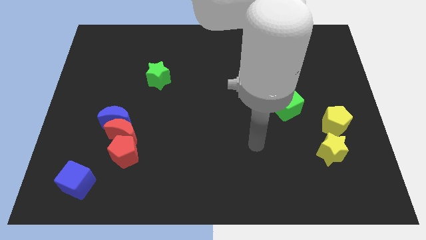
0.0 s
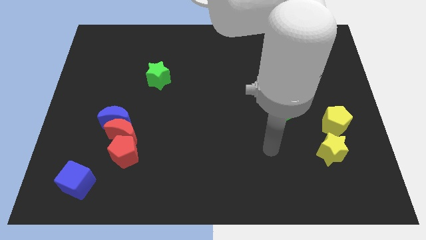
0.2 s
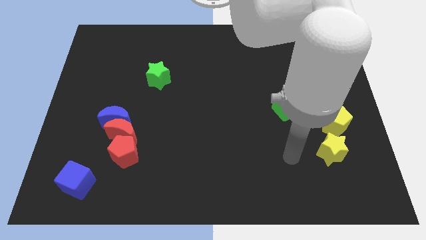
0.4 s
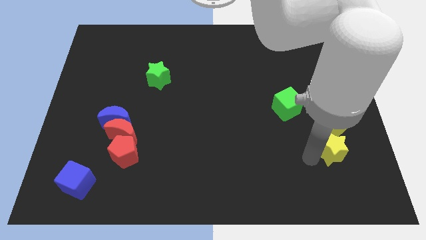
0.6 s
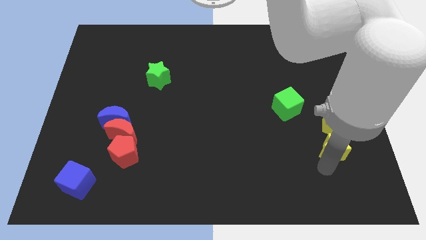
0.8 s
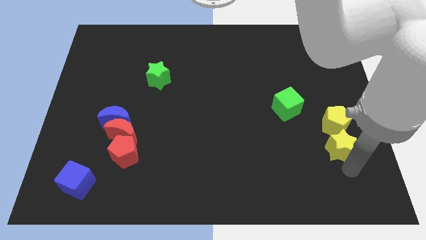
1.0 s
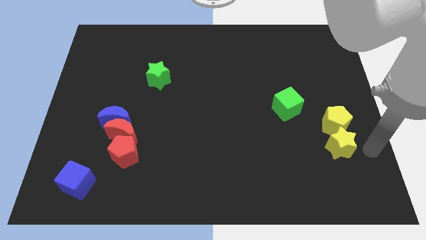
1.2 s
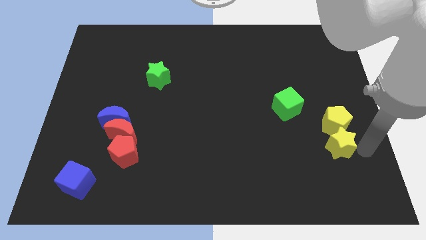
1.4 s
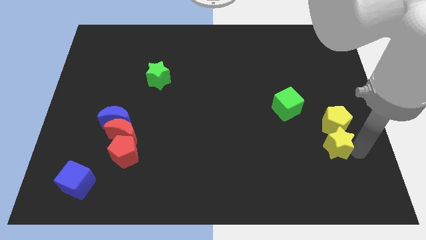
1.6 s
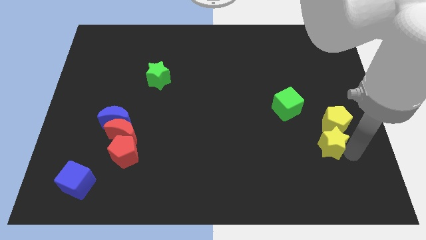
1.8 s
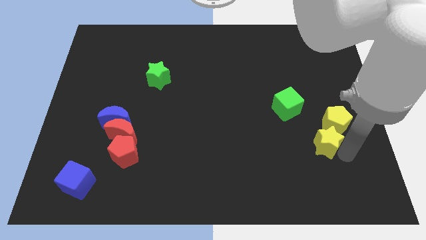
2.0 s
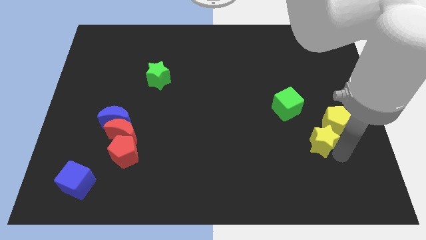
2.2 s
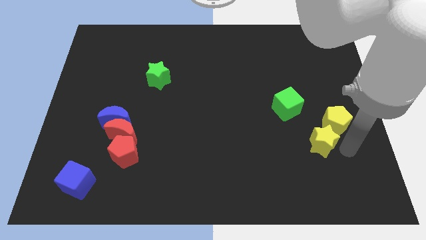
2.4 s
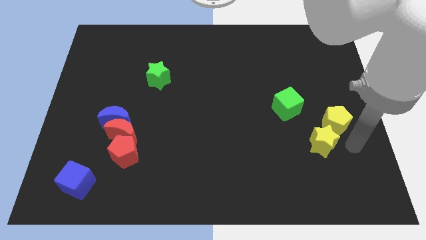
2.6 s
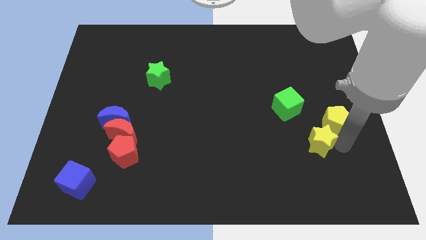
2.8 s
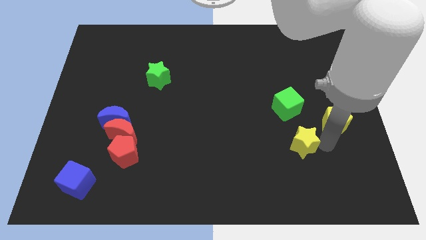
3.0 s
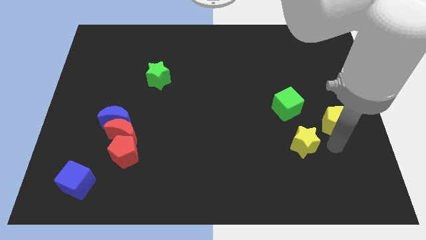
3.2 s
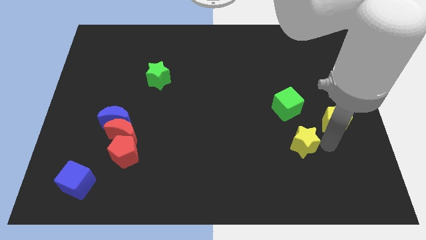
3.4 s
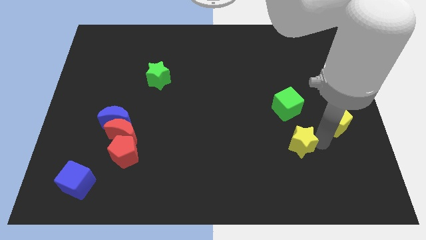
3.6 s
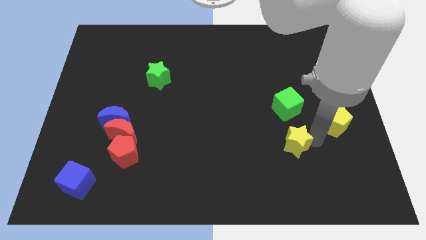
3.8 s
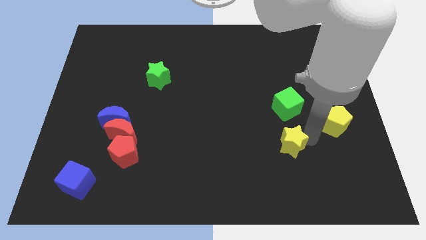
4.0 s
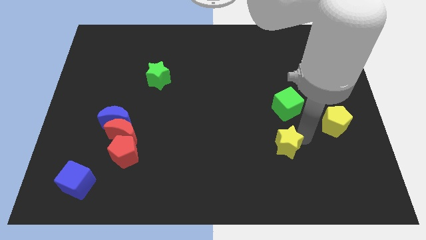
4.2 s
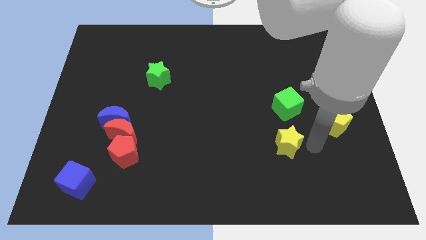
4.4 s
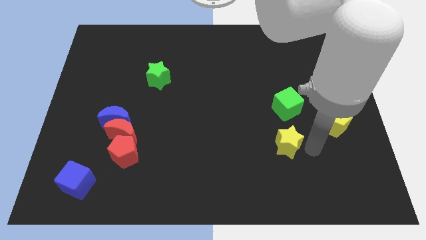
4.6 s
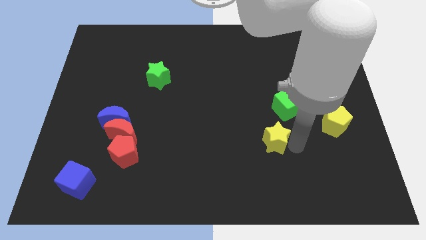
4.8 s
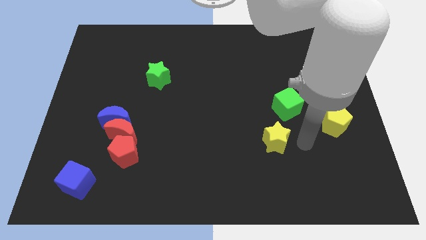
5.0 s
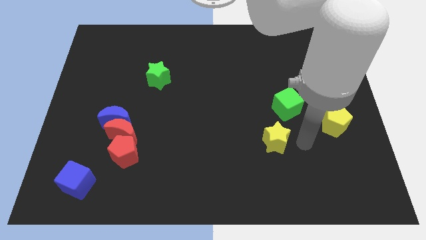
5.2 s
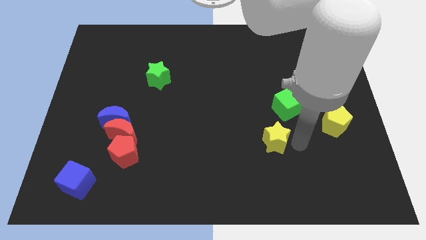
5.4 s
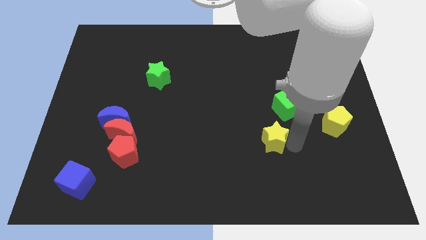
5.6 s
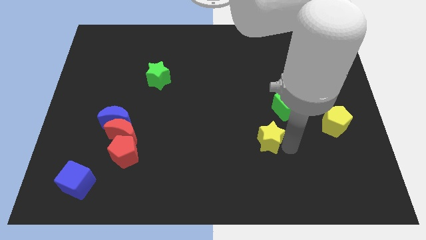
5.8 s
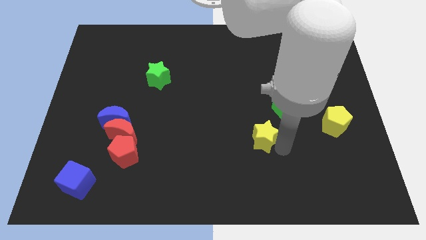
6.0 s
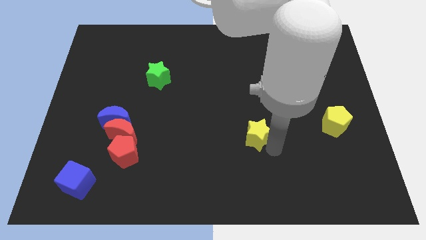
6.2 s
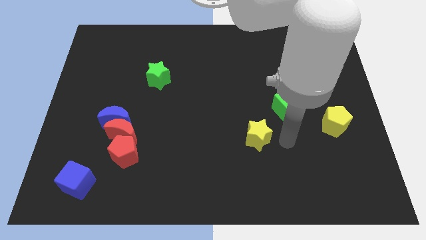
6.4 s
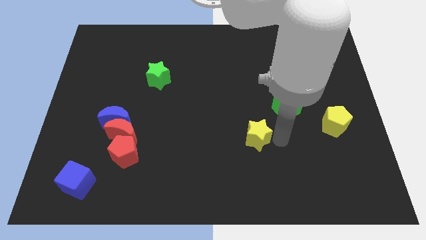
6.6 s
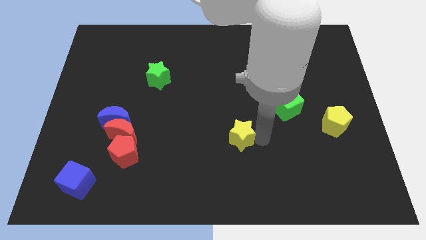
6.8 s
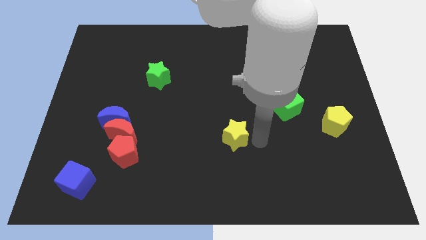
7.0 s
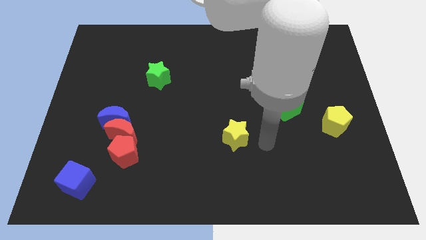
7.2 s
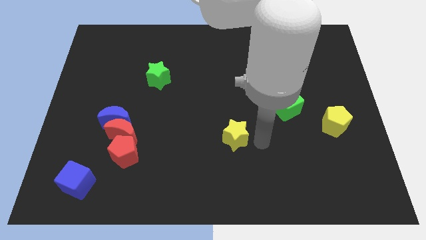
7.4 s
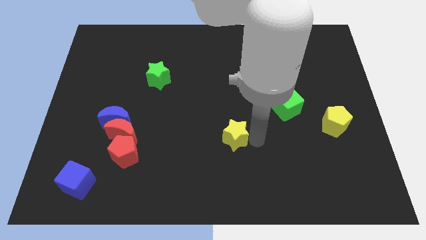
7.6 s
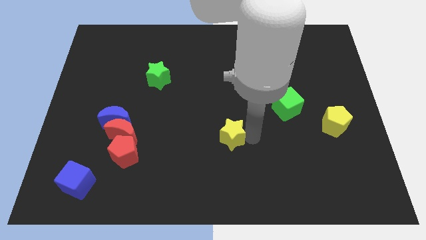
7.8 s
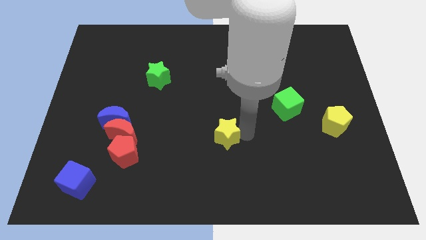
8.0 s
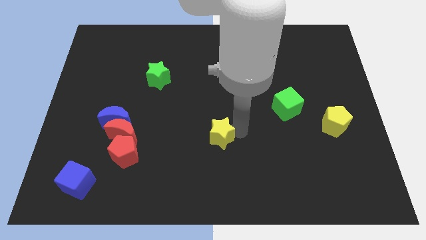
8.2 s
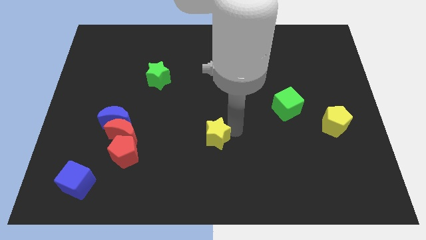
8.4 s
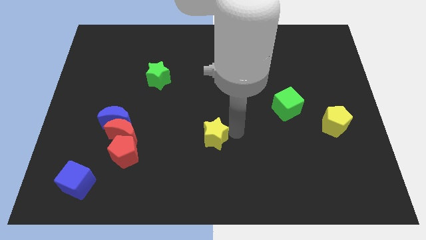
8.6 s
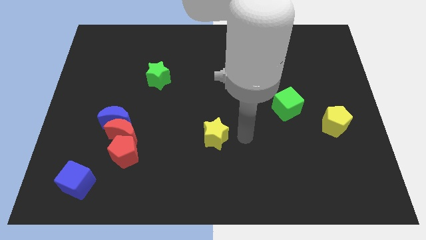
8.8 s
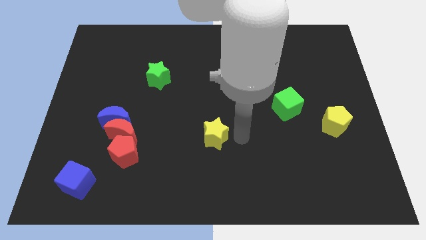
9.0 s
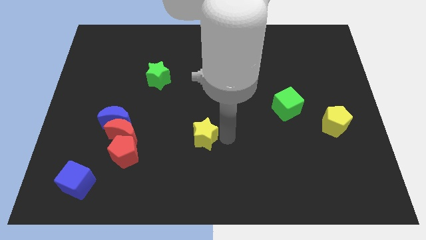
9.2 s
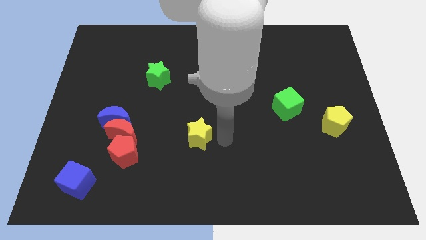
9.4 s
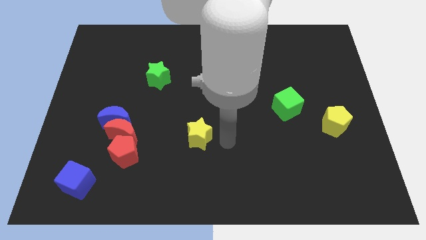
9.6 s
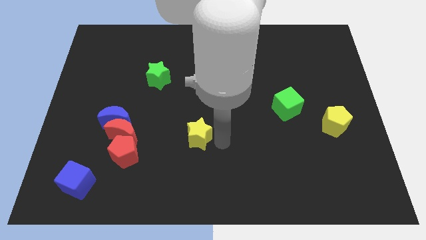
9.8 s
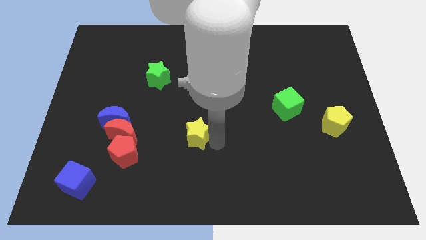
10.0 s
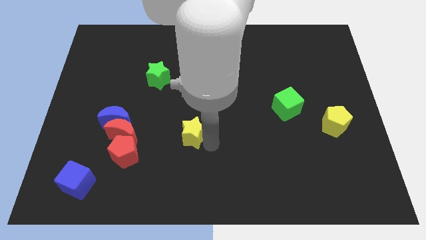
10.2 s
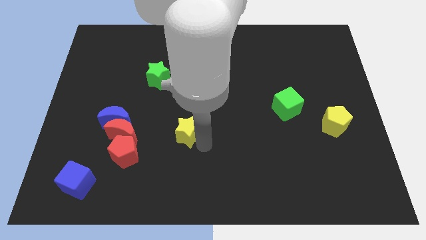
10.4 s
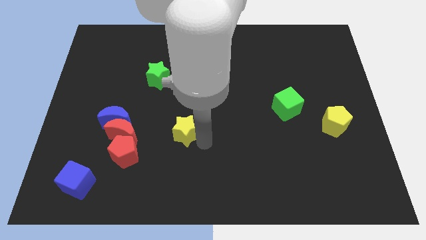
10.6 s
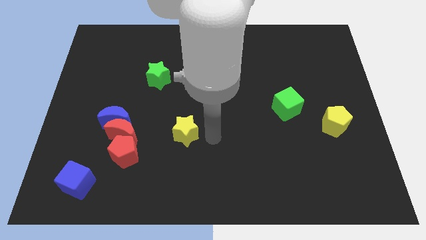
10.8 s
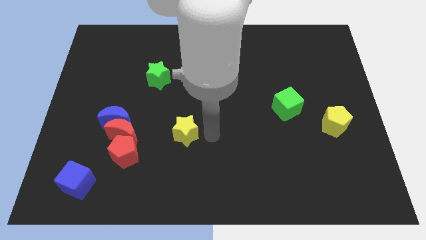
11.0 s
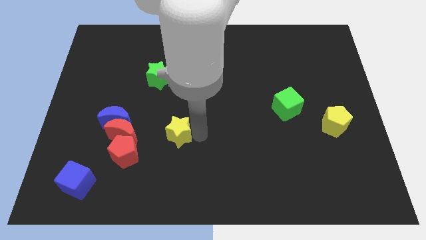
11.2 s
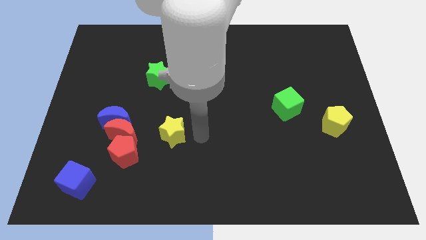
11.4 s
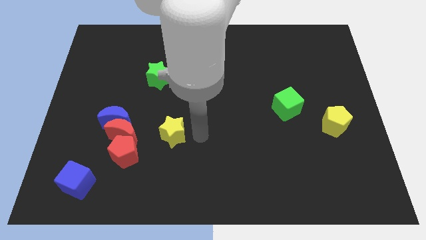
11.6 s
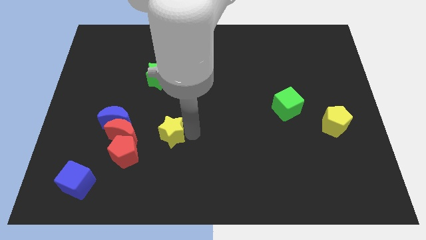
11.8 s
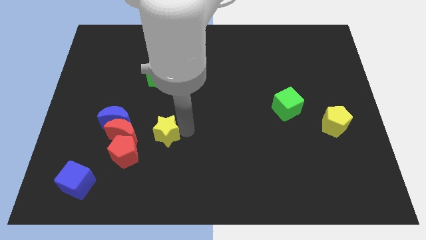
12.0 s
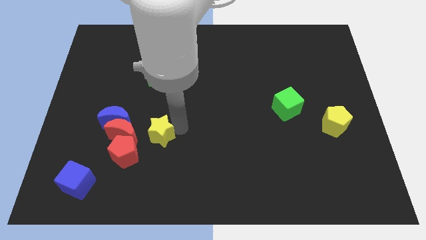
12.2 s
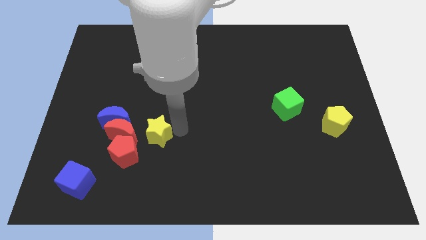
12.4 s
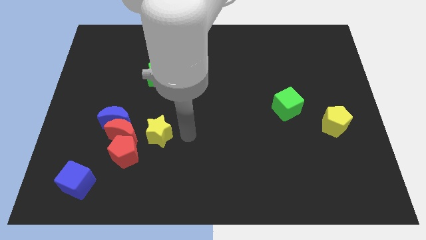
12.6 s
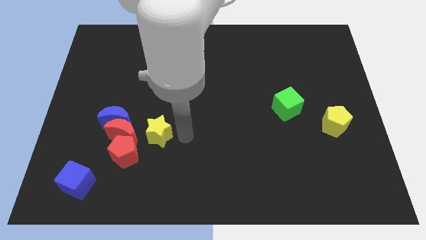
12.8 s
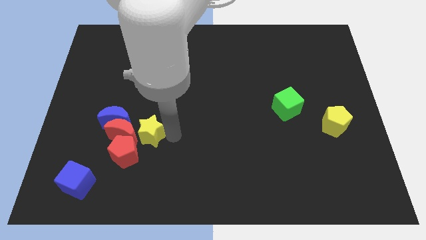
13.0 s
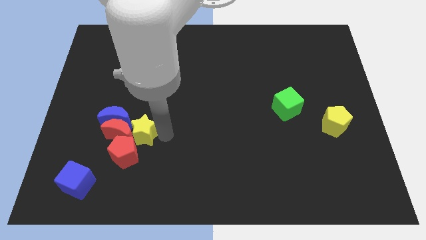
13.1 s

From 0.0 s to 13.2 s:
slide the yellow star close to the red moon

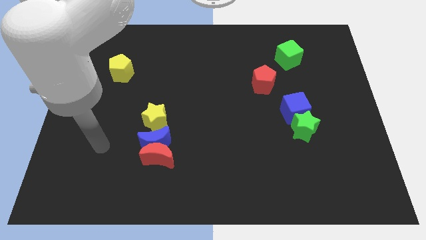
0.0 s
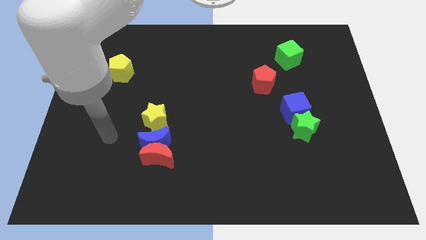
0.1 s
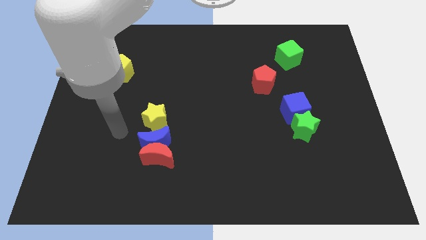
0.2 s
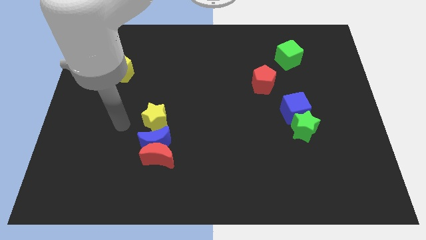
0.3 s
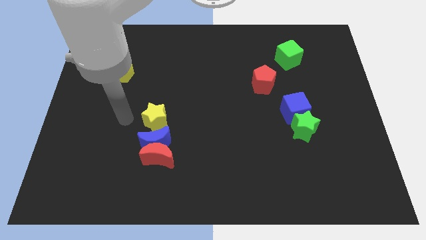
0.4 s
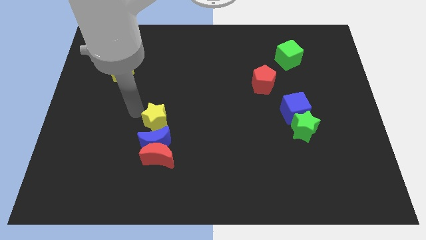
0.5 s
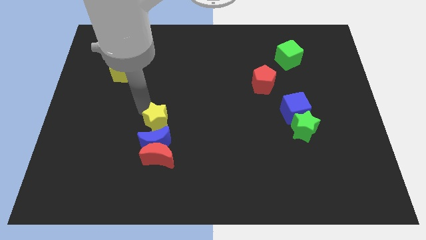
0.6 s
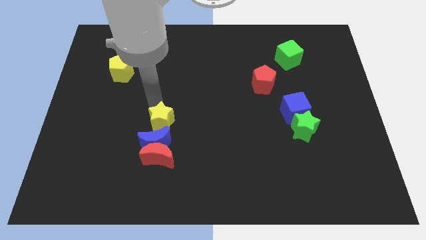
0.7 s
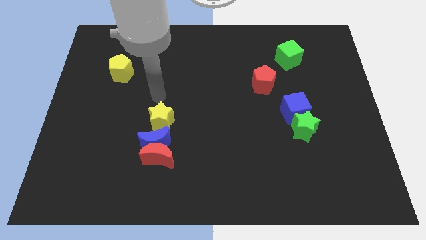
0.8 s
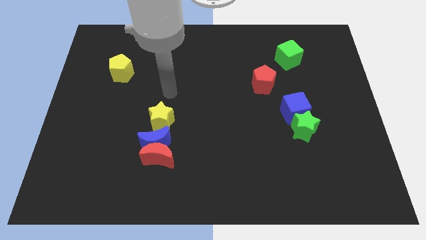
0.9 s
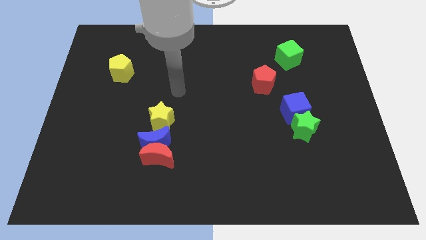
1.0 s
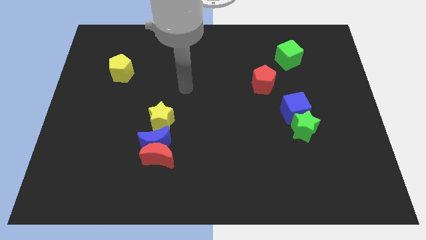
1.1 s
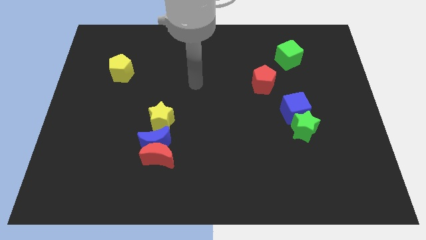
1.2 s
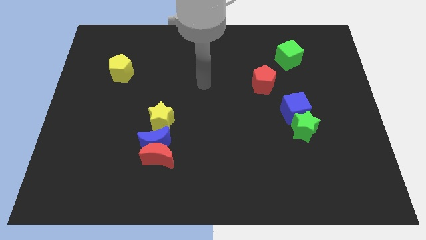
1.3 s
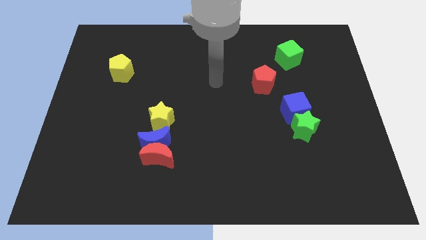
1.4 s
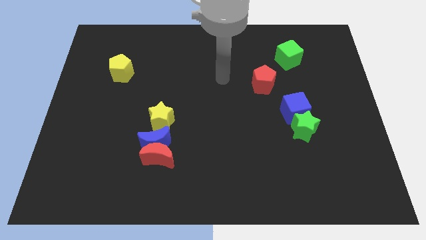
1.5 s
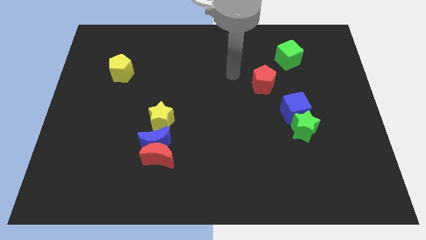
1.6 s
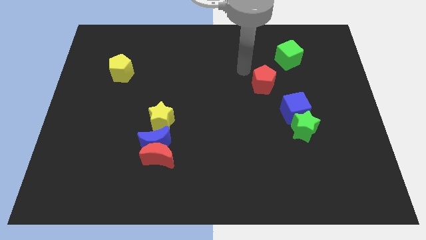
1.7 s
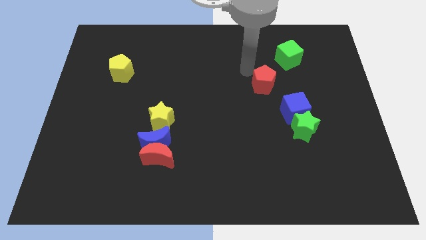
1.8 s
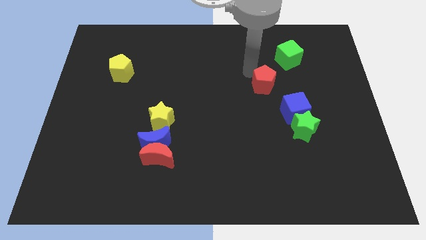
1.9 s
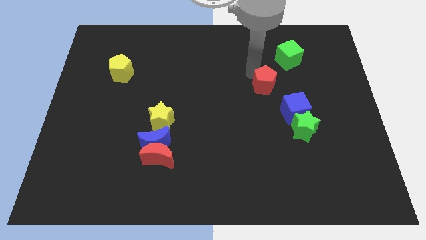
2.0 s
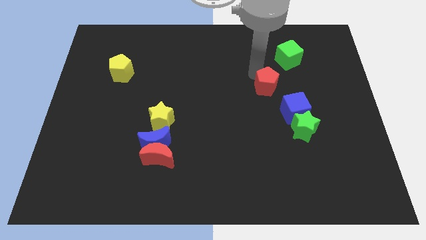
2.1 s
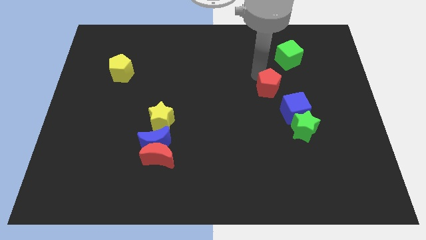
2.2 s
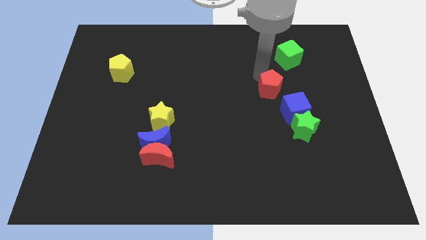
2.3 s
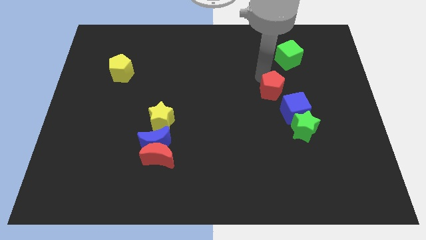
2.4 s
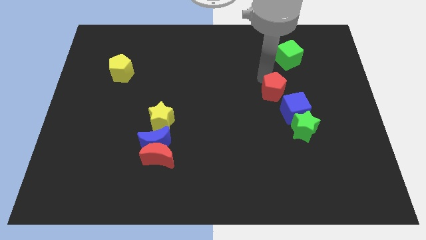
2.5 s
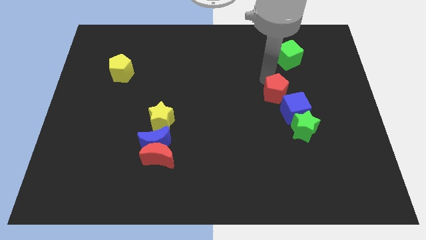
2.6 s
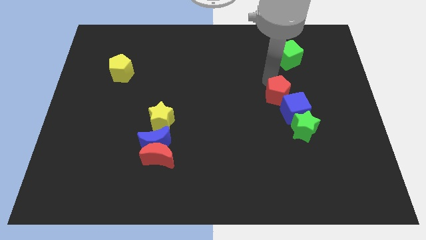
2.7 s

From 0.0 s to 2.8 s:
put the red pentagon towards the blue cube
